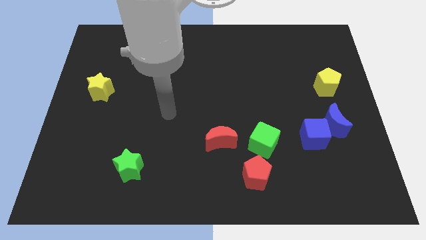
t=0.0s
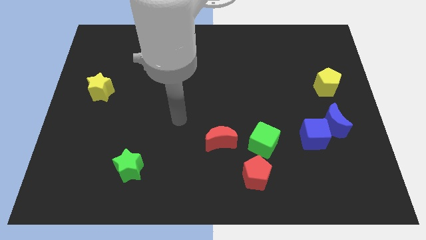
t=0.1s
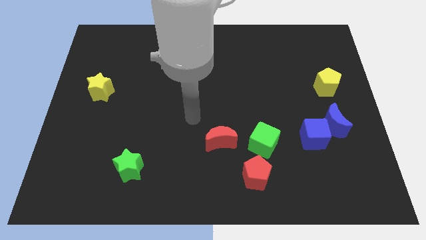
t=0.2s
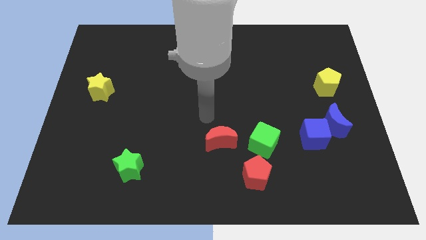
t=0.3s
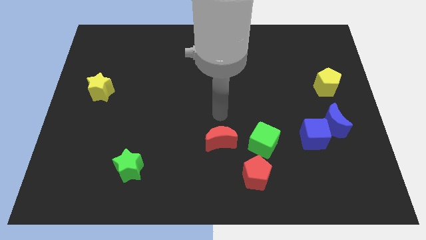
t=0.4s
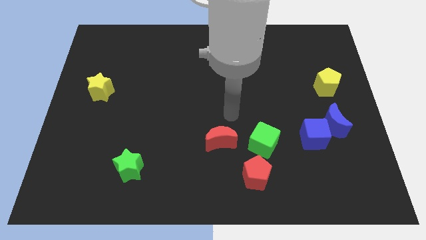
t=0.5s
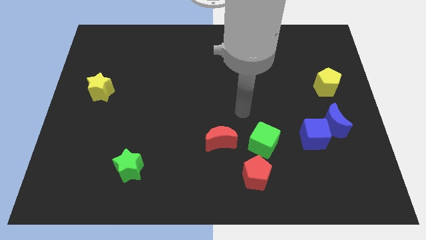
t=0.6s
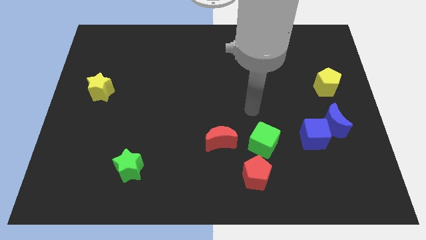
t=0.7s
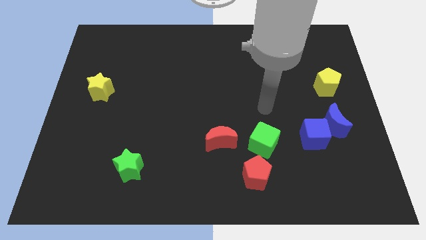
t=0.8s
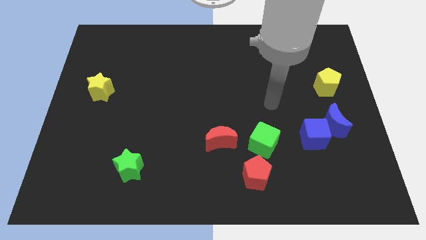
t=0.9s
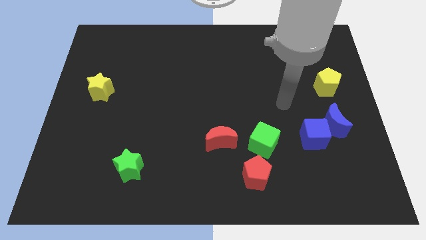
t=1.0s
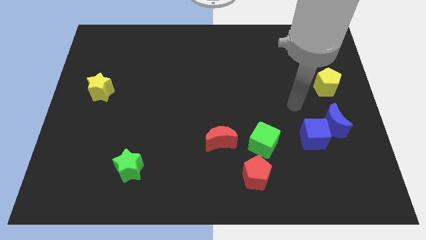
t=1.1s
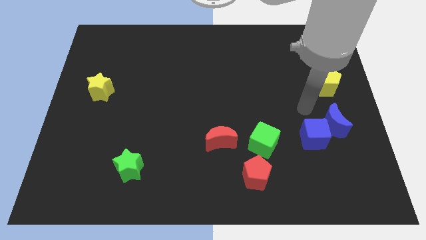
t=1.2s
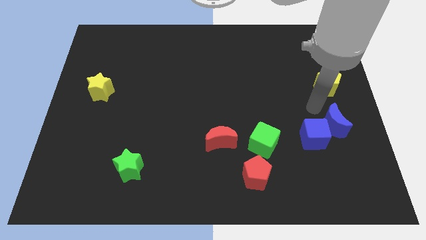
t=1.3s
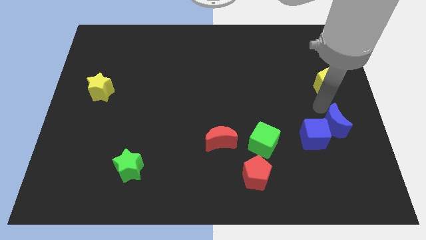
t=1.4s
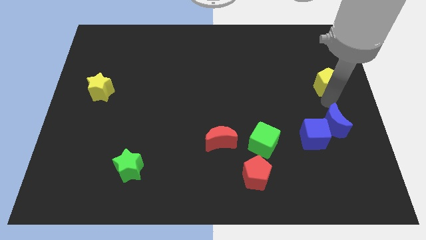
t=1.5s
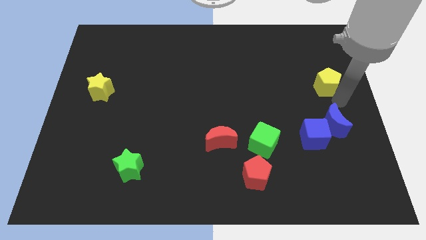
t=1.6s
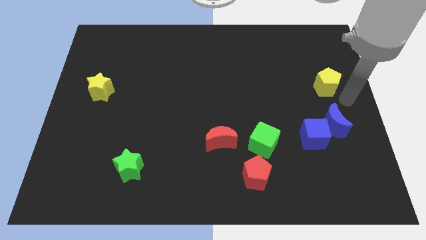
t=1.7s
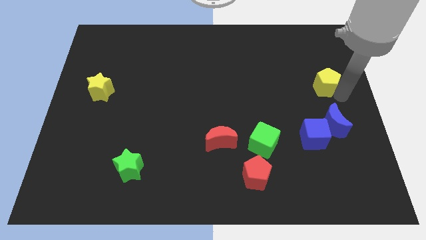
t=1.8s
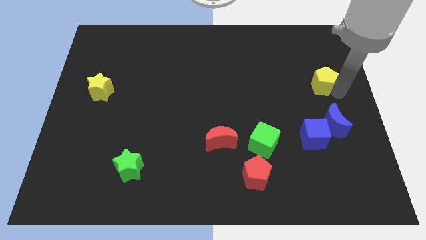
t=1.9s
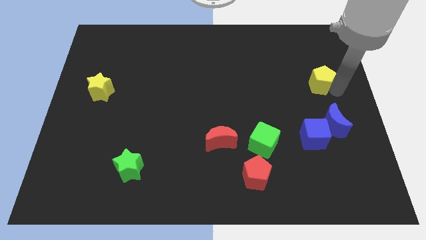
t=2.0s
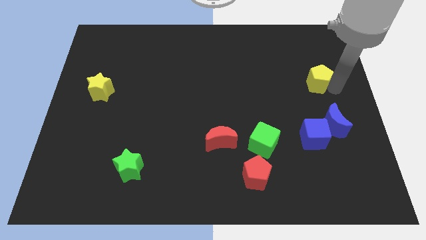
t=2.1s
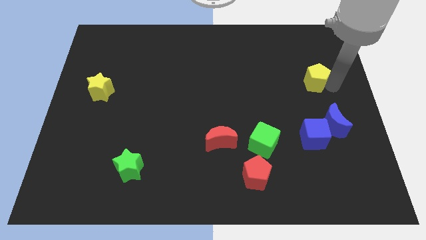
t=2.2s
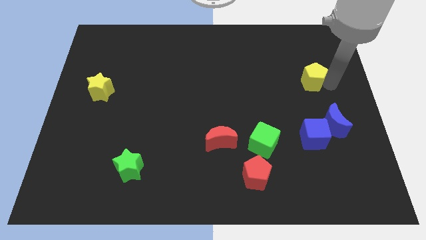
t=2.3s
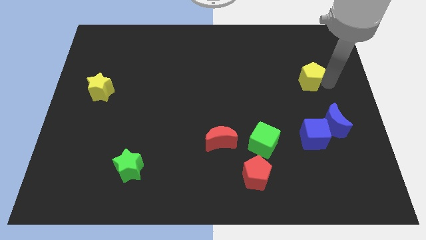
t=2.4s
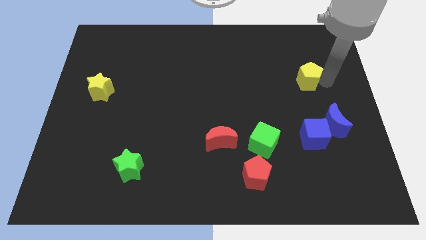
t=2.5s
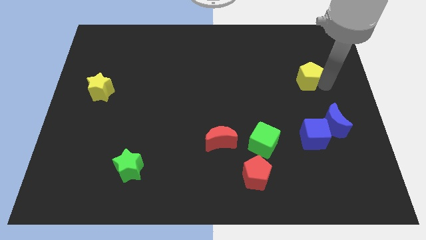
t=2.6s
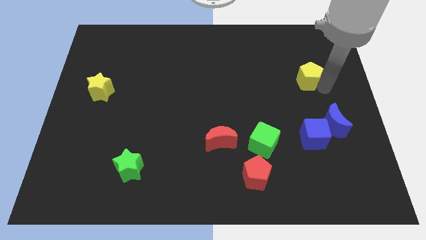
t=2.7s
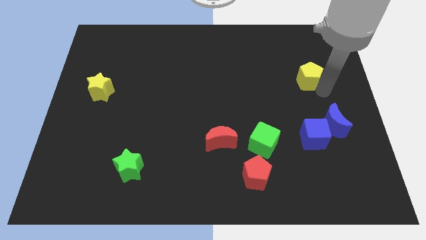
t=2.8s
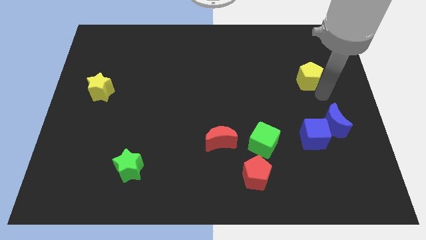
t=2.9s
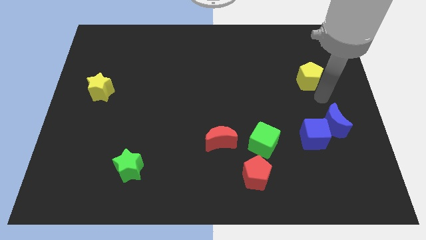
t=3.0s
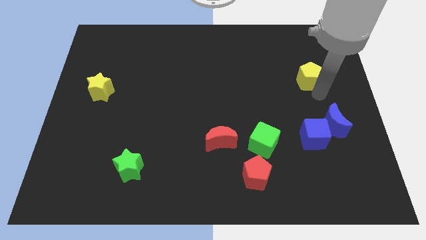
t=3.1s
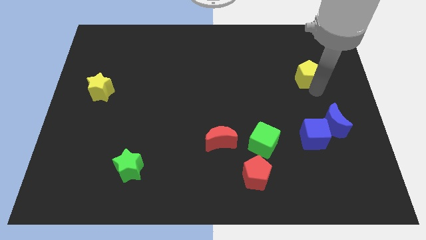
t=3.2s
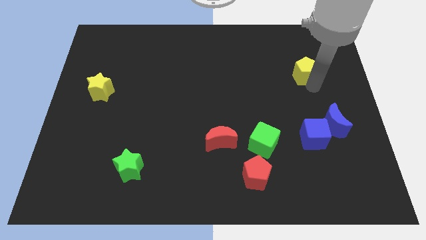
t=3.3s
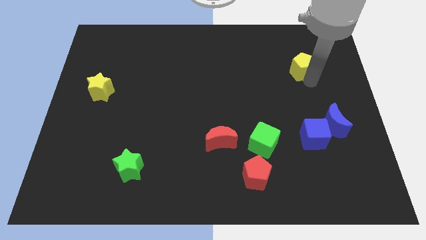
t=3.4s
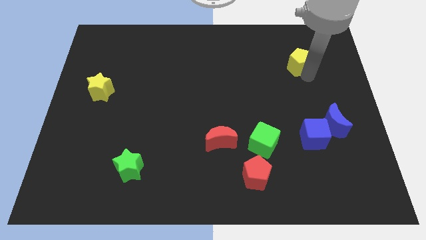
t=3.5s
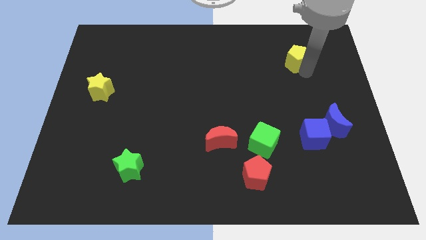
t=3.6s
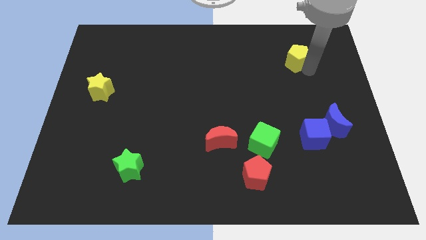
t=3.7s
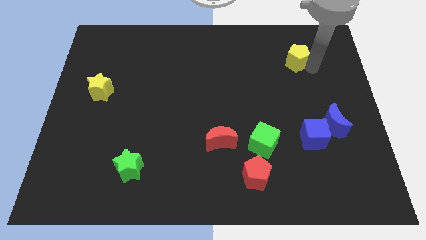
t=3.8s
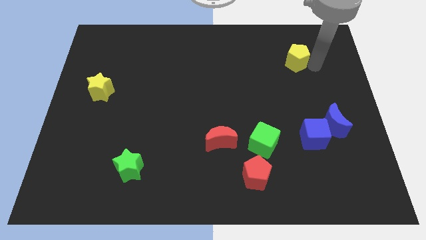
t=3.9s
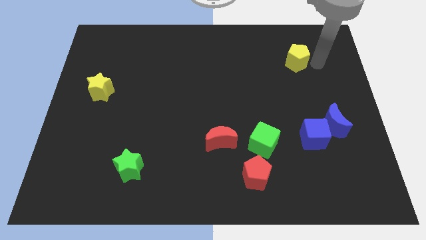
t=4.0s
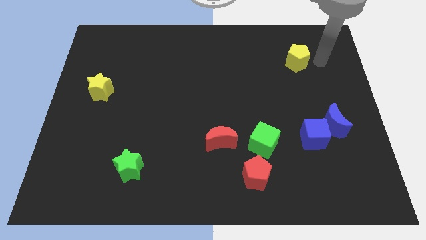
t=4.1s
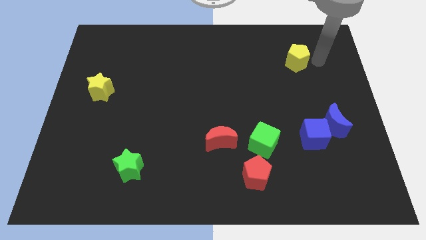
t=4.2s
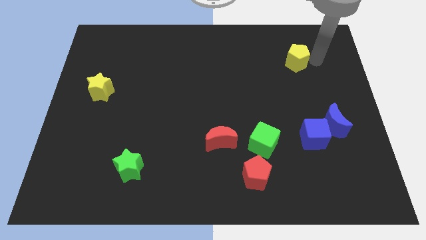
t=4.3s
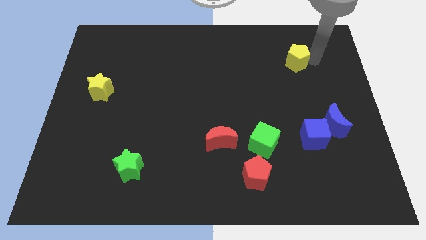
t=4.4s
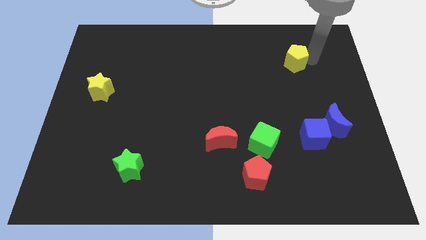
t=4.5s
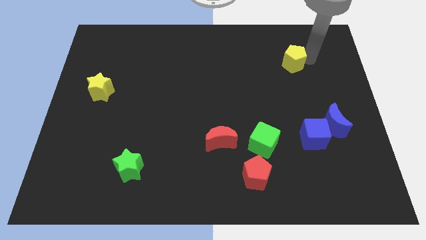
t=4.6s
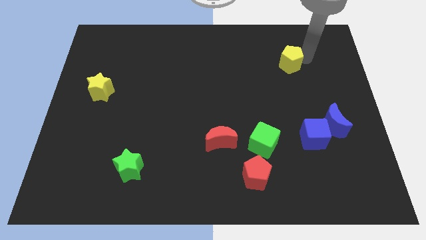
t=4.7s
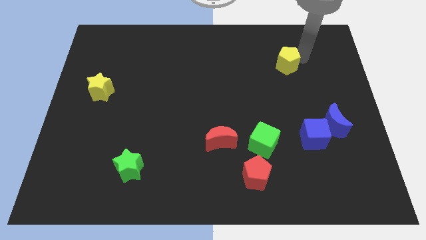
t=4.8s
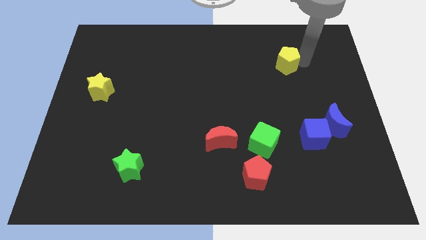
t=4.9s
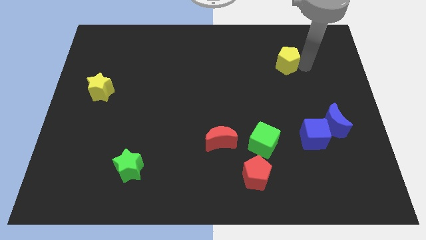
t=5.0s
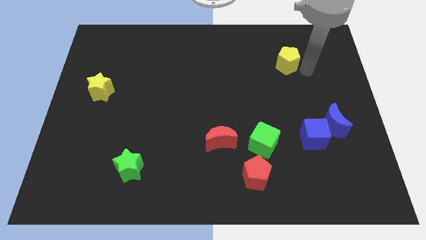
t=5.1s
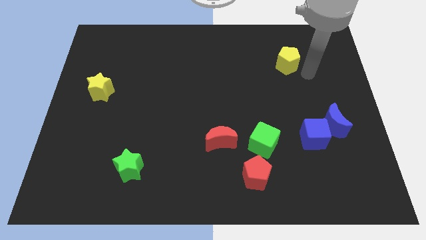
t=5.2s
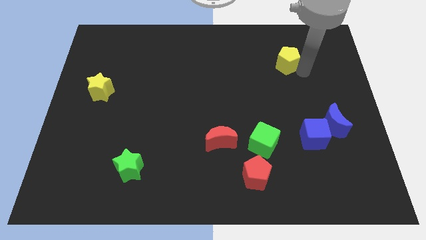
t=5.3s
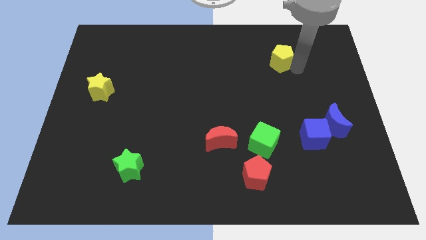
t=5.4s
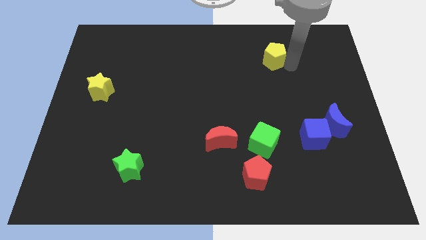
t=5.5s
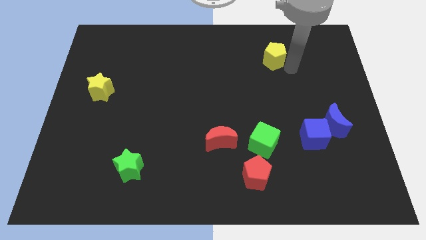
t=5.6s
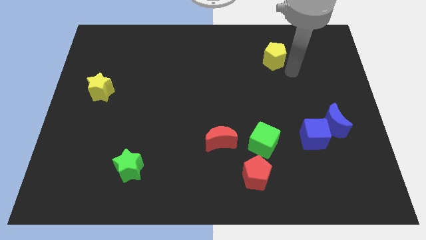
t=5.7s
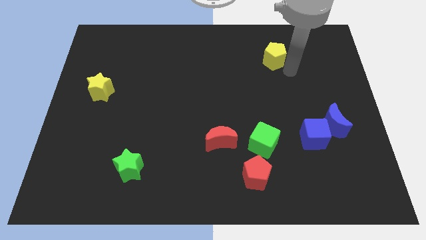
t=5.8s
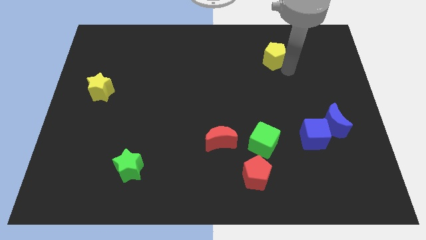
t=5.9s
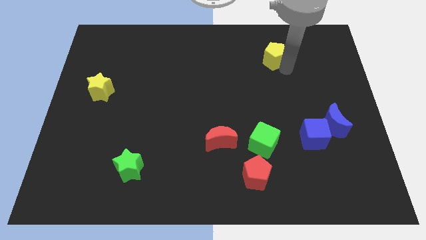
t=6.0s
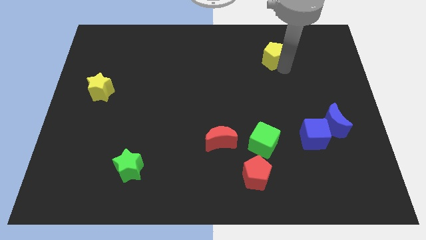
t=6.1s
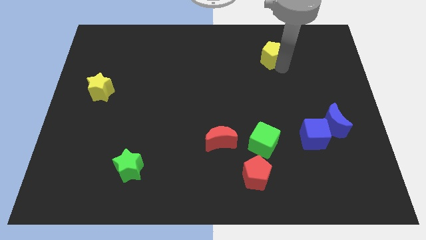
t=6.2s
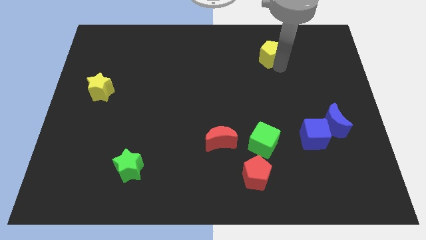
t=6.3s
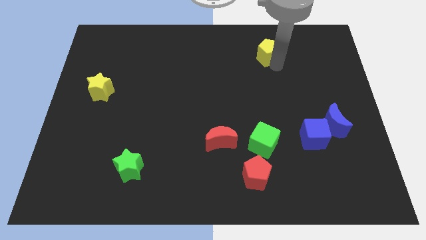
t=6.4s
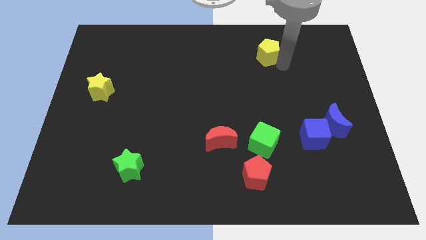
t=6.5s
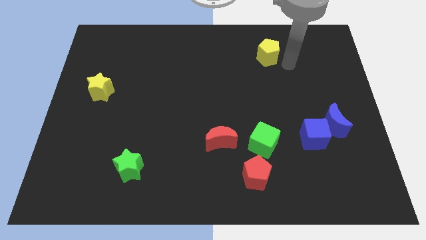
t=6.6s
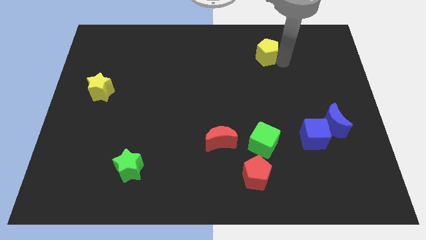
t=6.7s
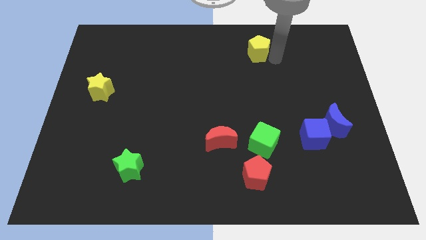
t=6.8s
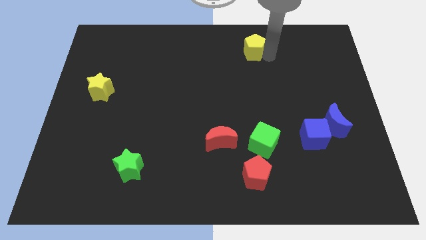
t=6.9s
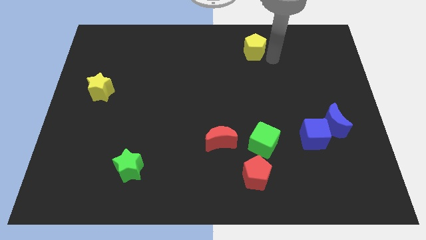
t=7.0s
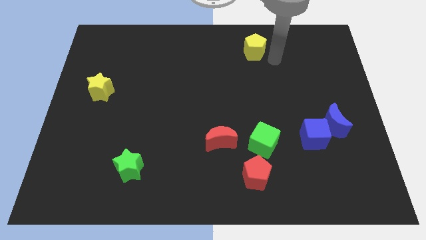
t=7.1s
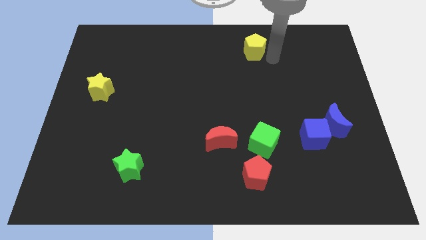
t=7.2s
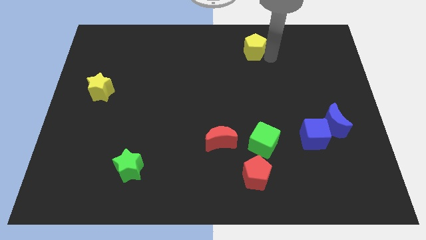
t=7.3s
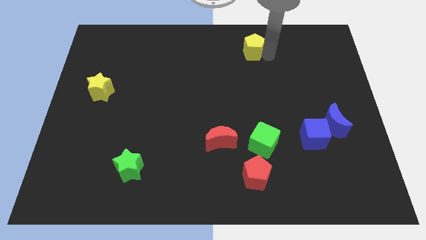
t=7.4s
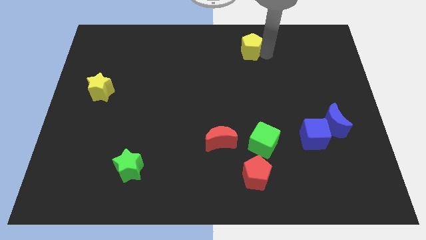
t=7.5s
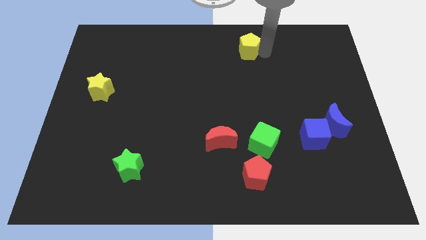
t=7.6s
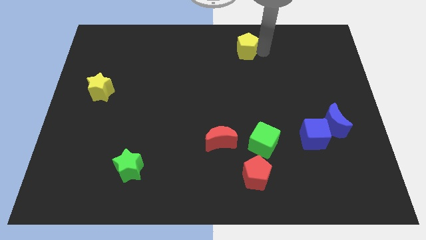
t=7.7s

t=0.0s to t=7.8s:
slide the yellow pentagon to the top side
